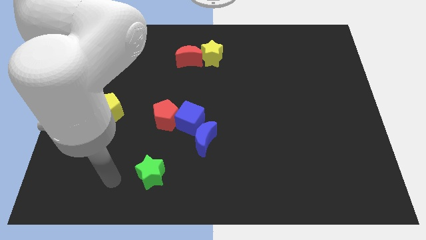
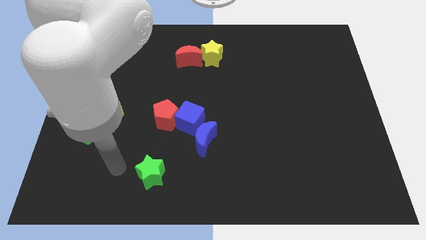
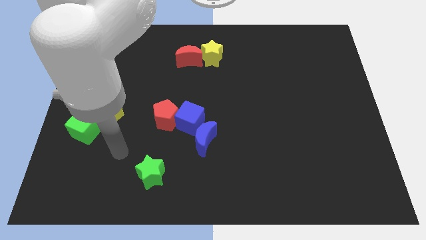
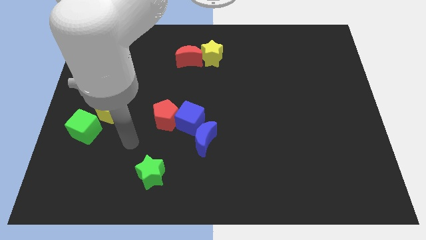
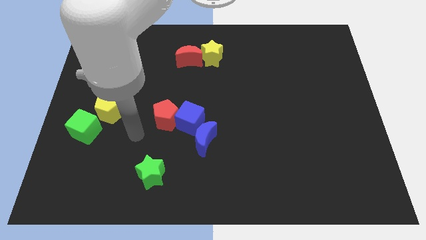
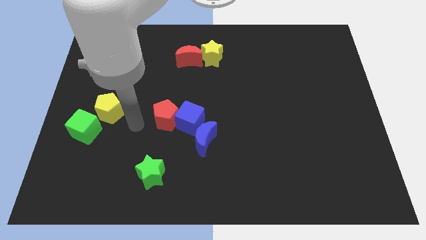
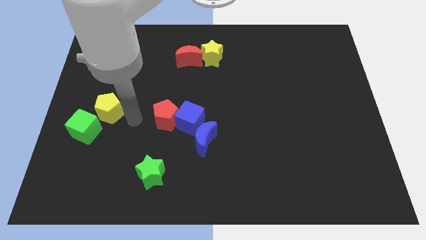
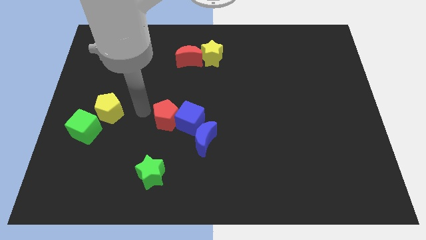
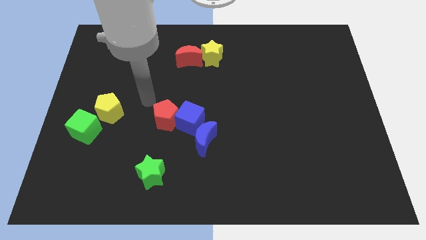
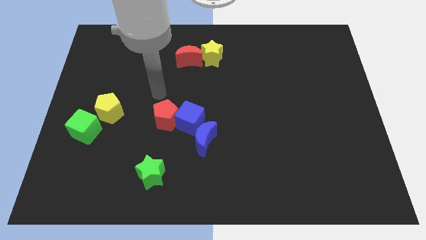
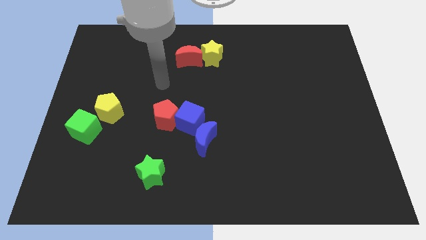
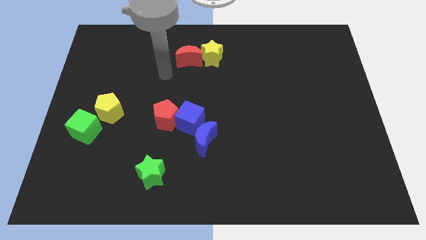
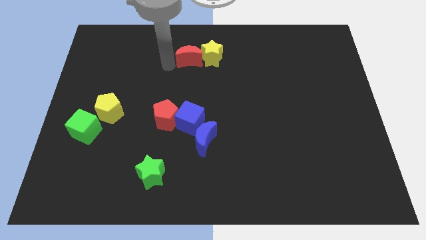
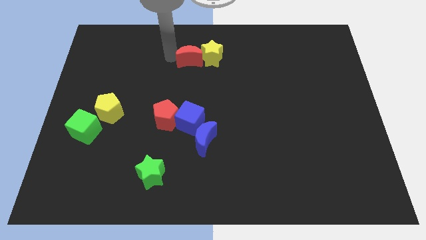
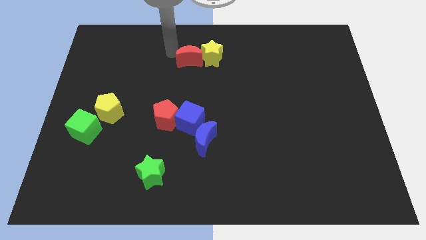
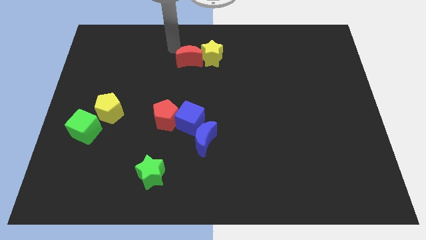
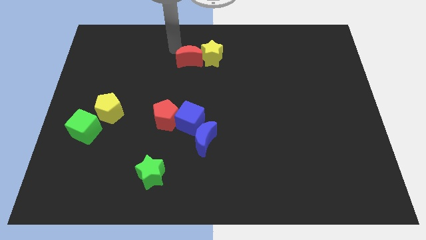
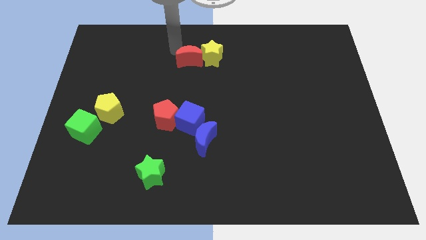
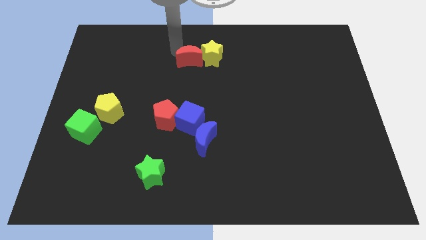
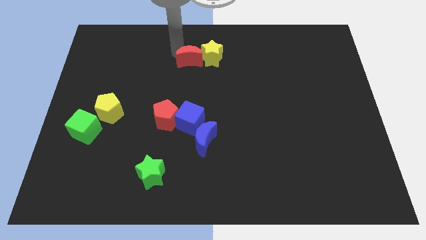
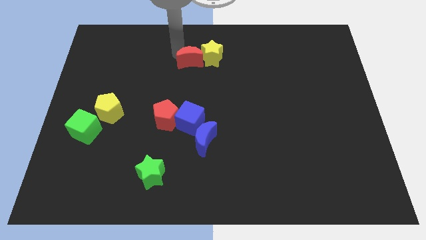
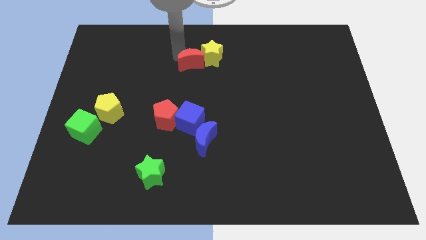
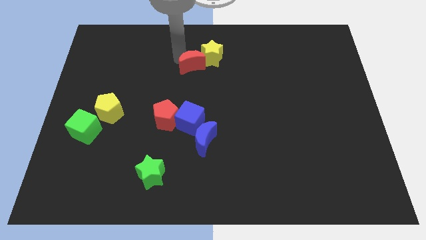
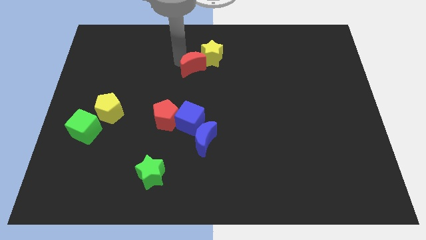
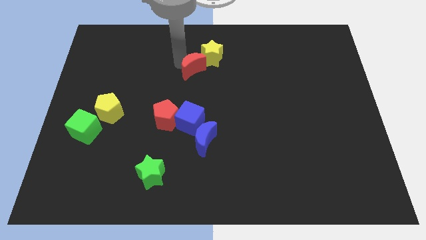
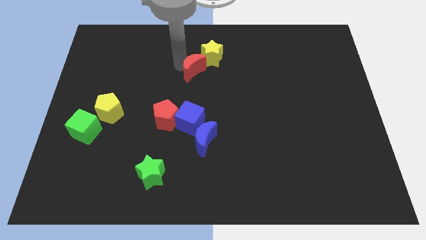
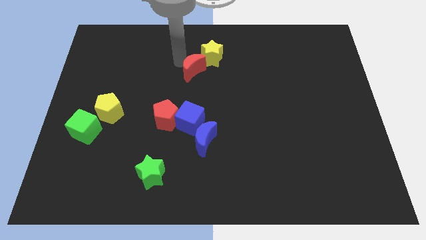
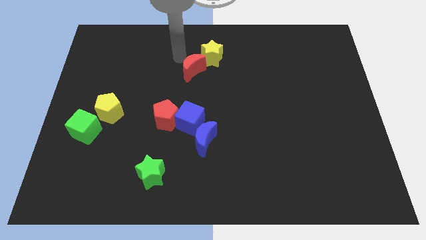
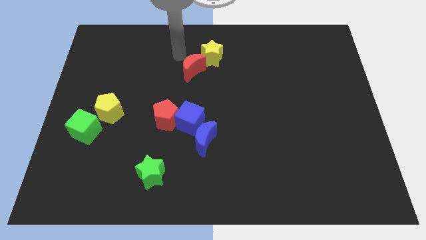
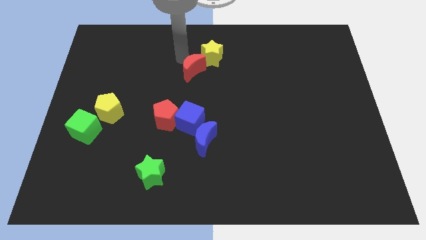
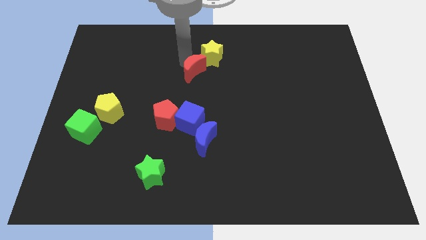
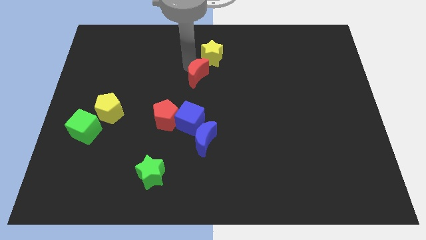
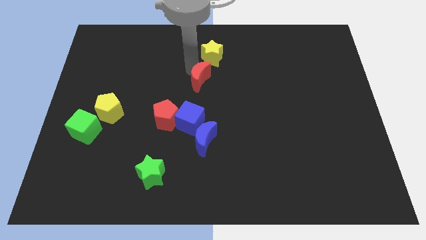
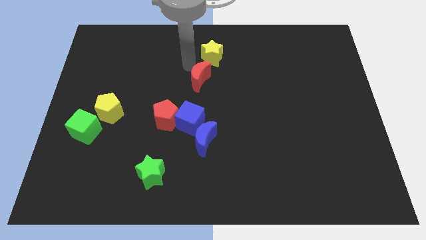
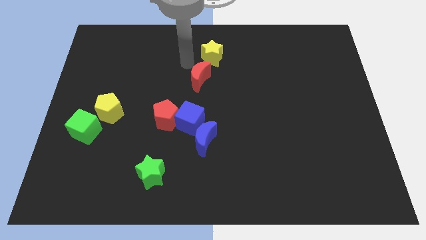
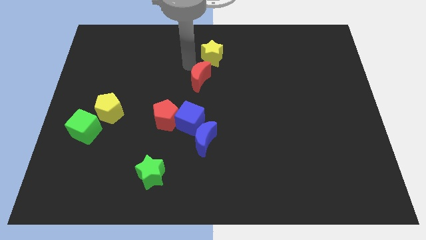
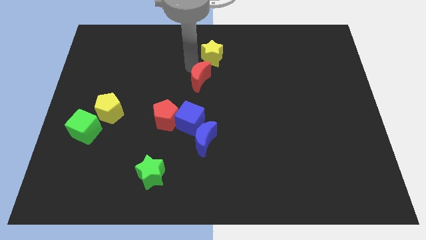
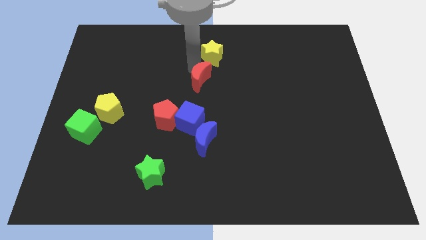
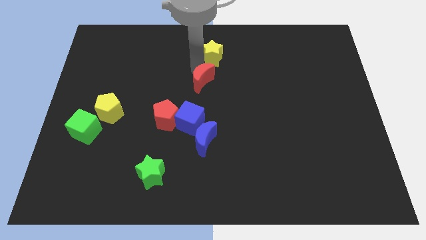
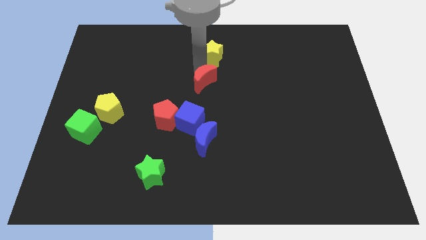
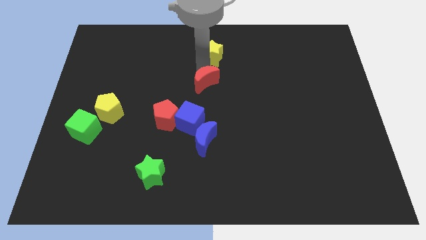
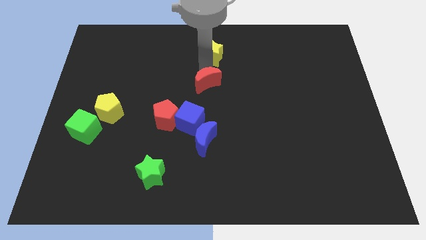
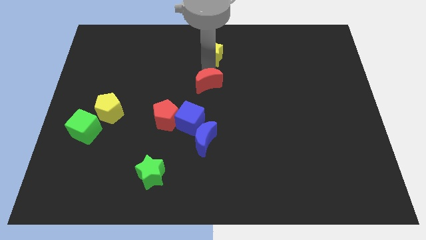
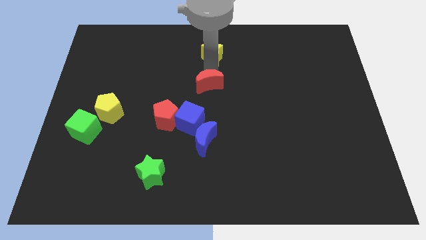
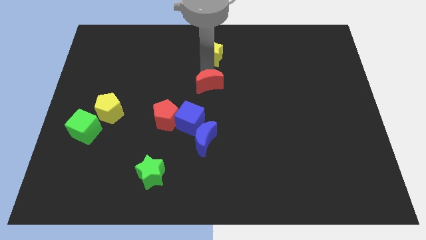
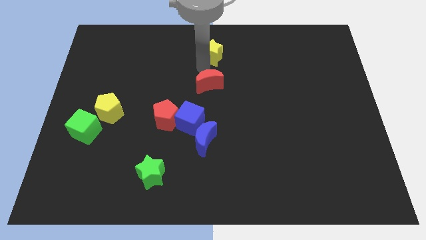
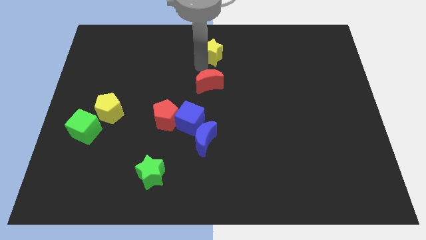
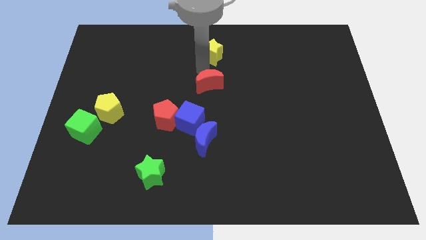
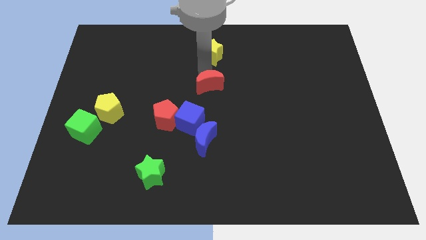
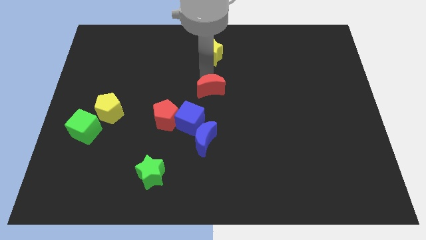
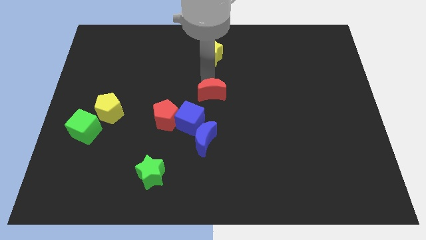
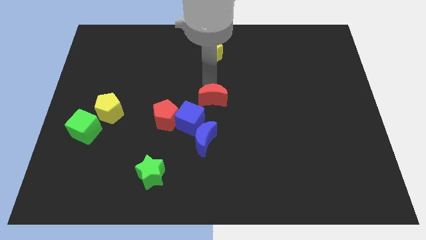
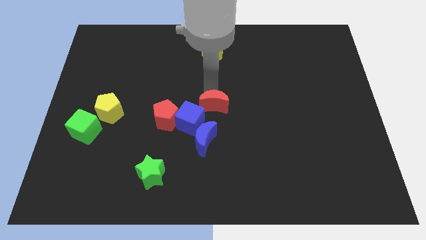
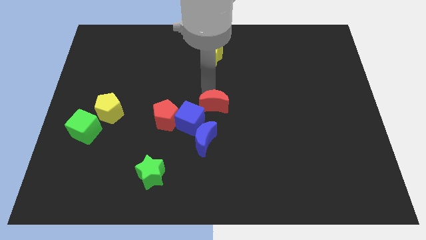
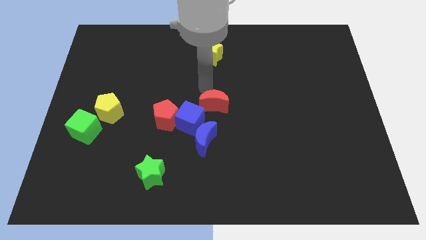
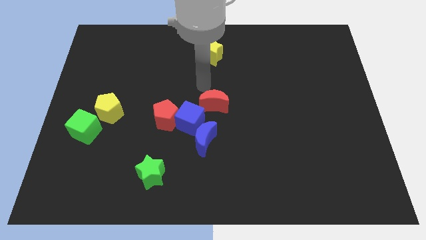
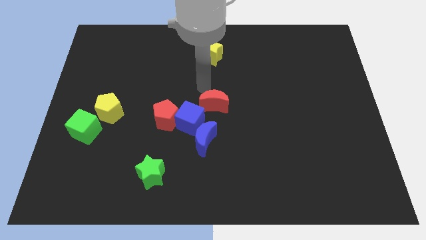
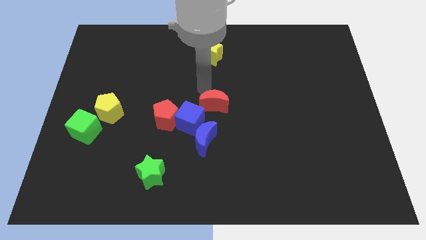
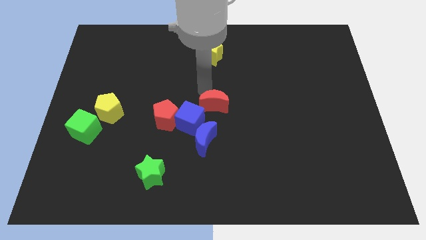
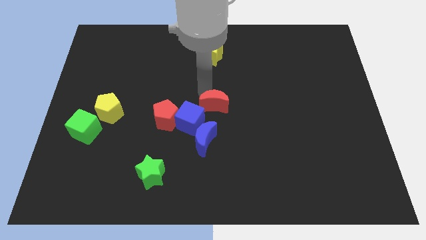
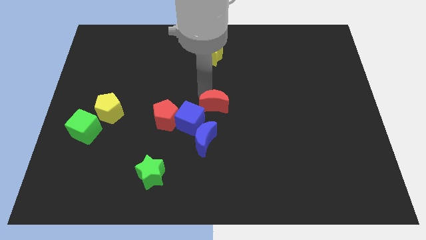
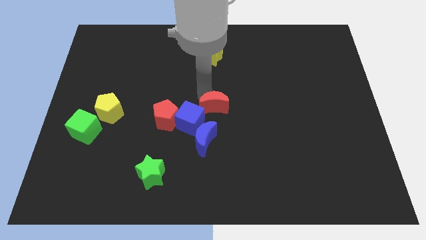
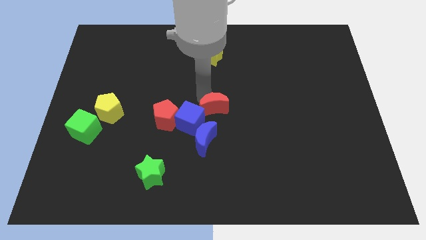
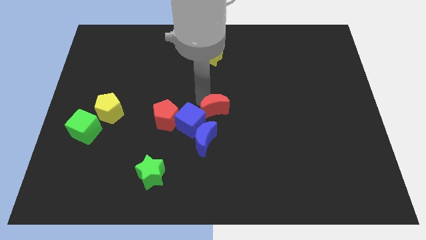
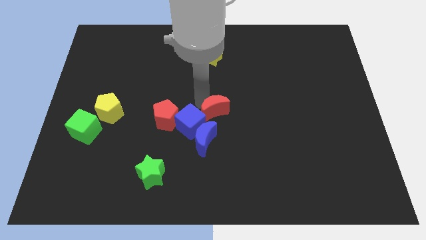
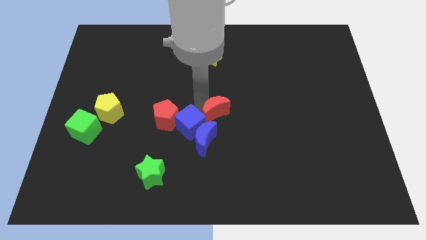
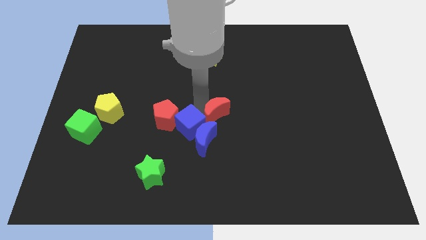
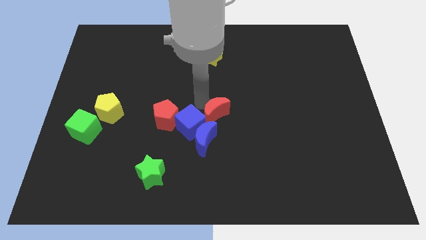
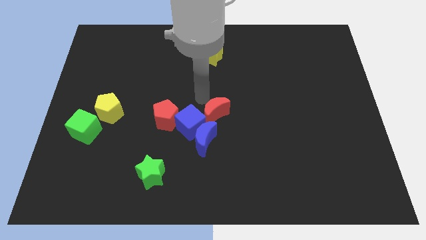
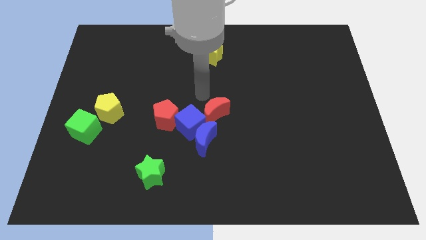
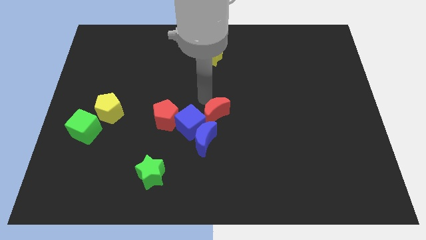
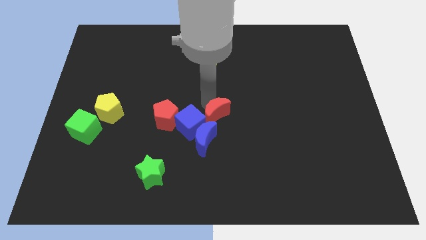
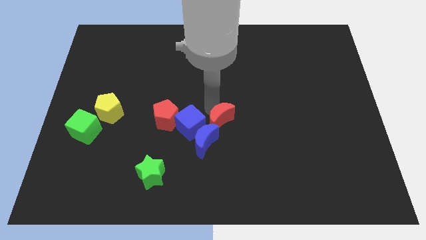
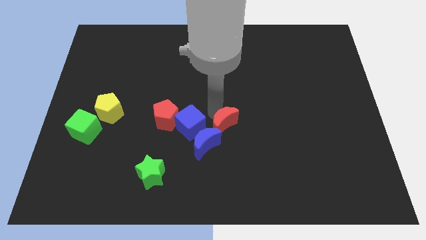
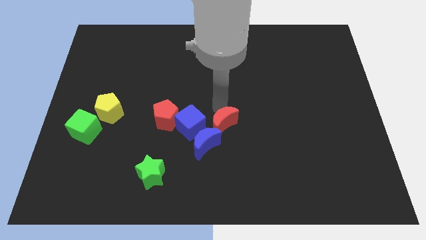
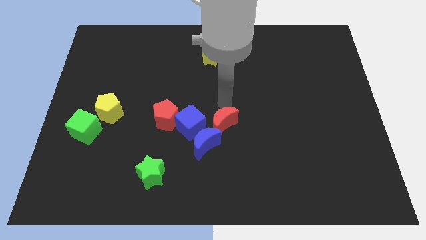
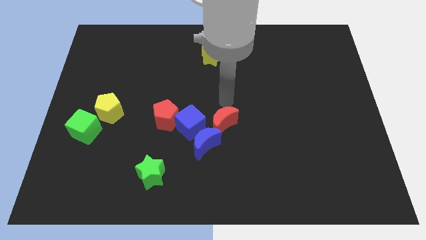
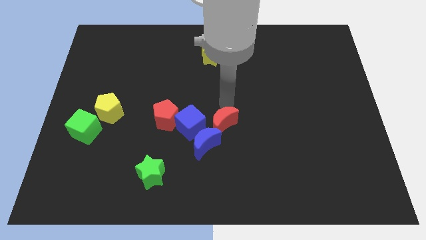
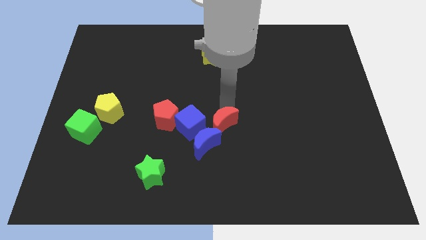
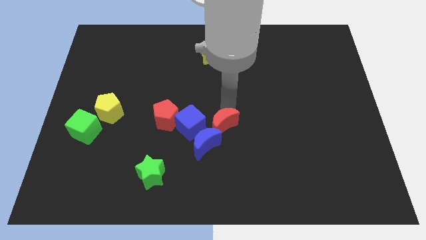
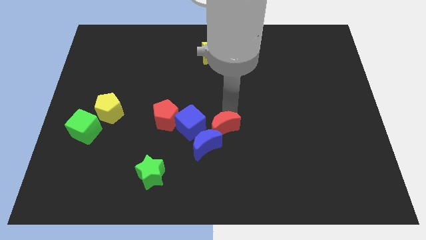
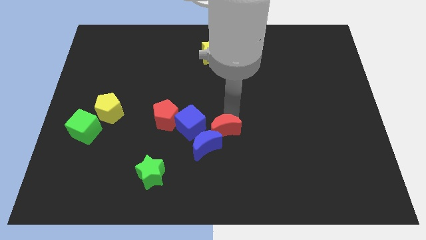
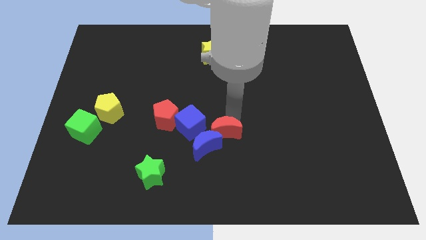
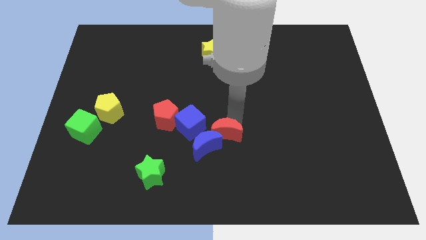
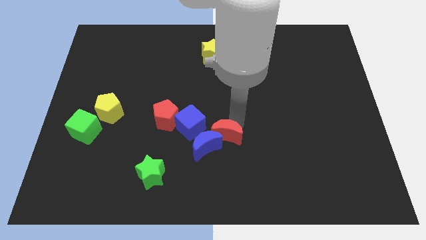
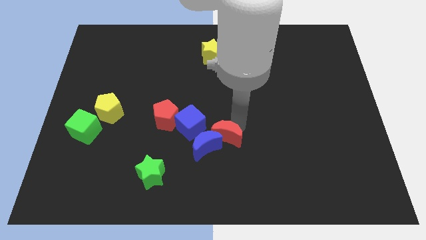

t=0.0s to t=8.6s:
move the red moon downwards
